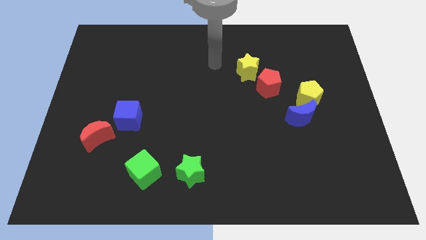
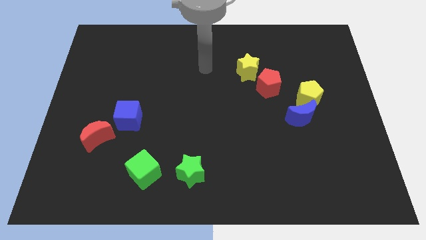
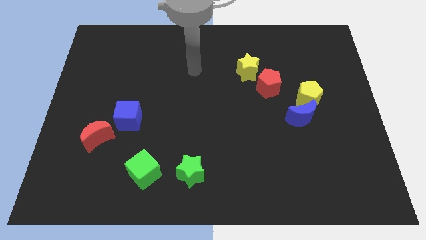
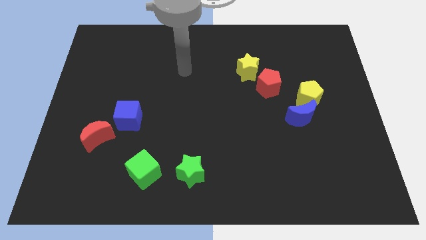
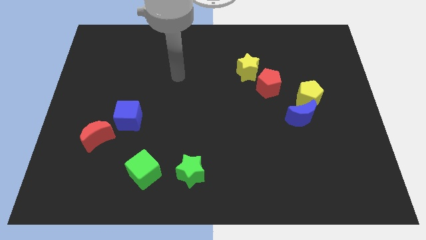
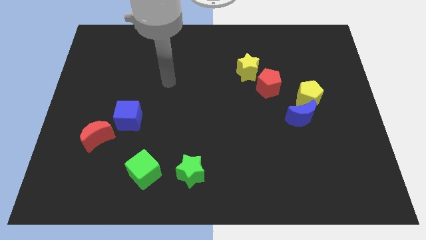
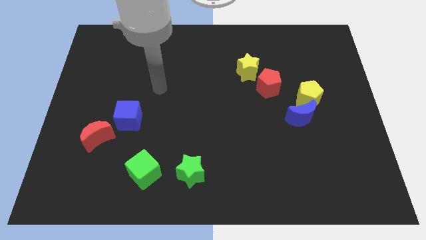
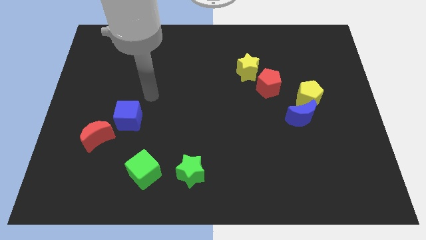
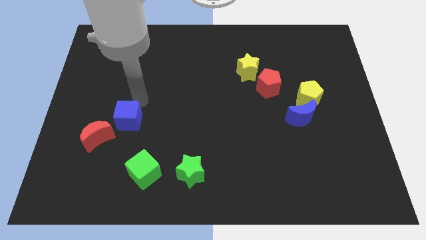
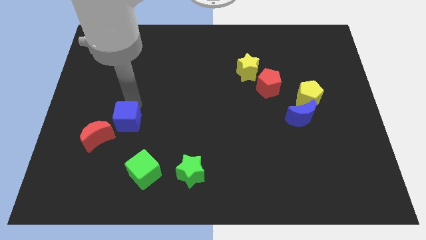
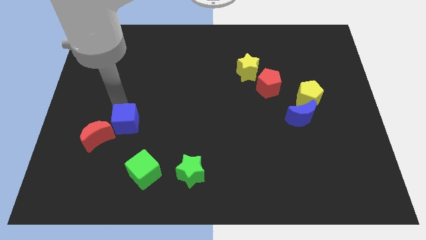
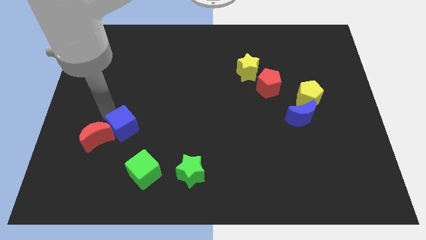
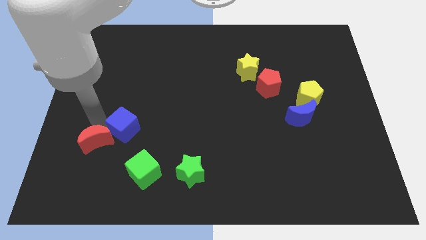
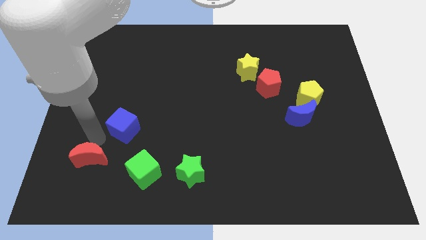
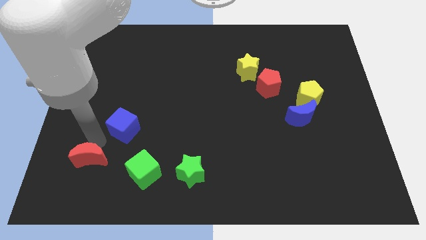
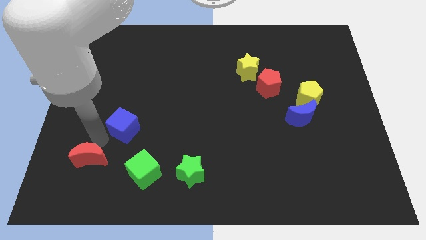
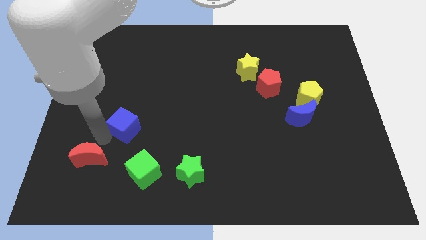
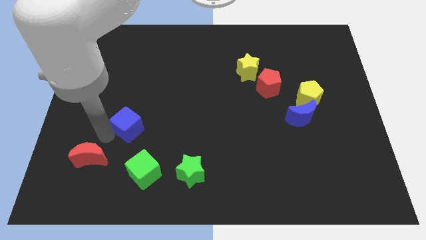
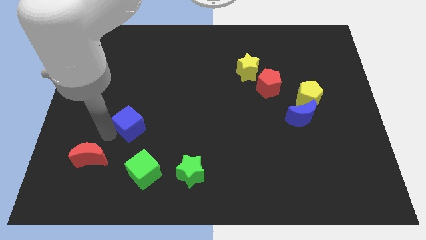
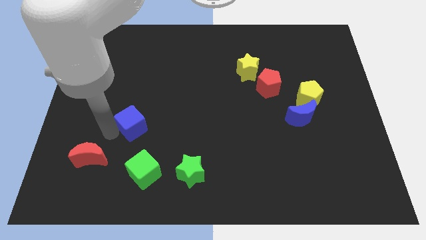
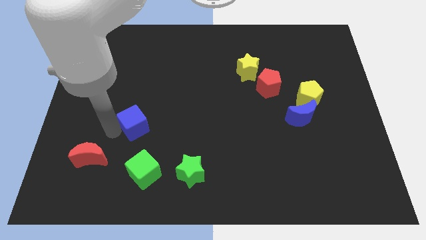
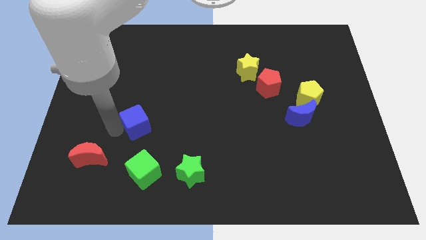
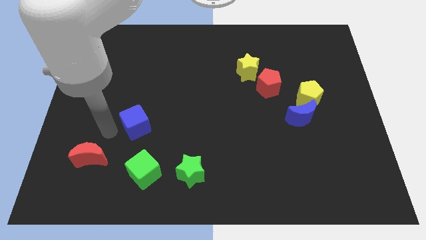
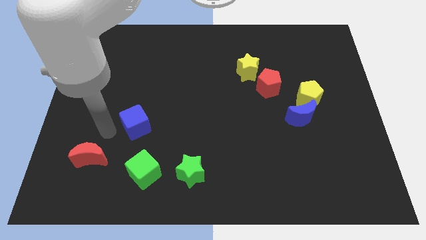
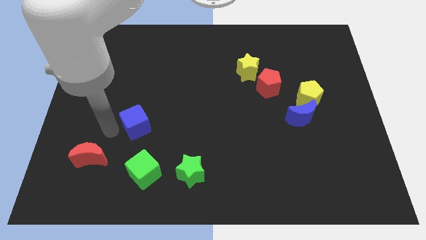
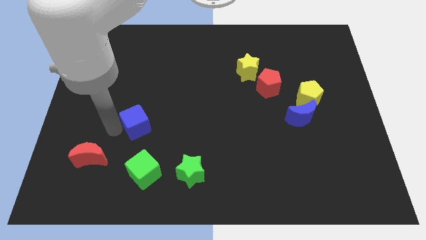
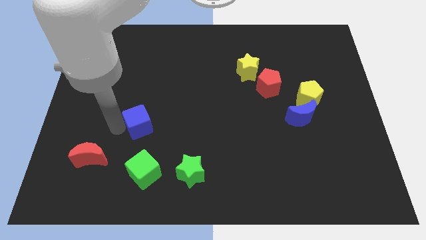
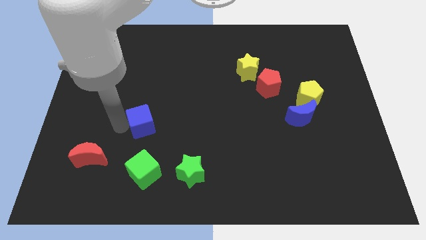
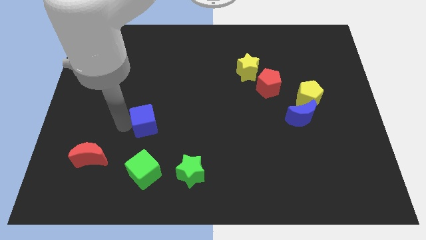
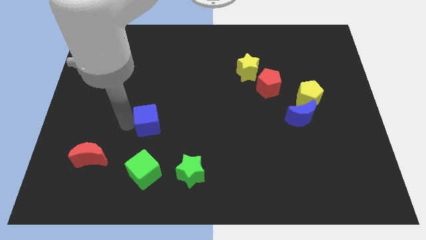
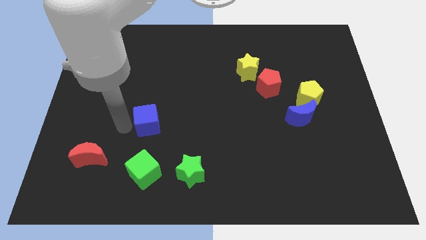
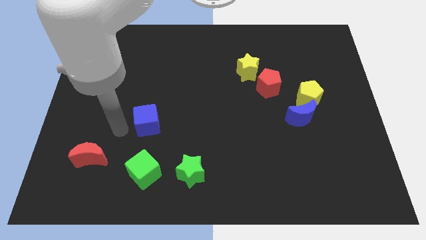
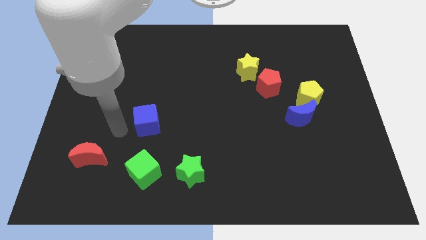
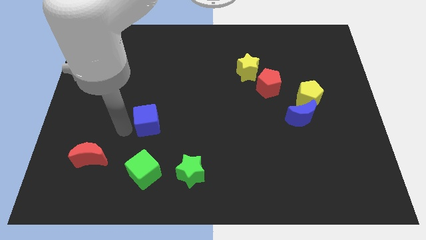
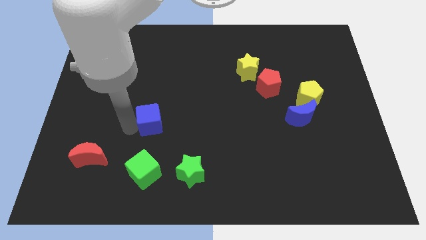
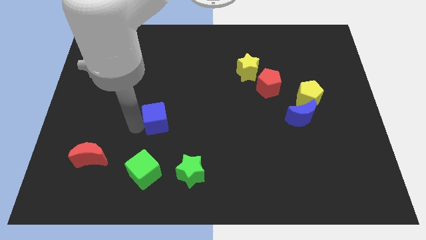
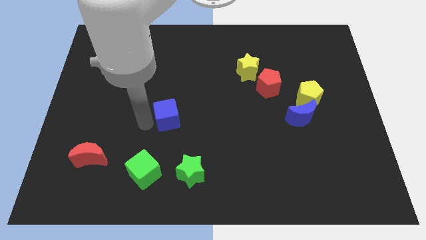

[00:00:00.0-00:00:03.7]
slightly push the blue cube right

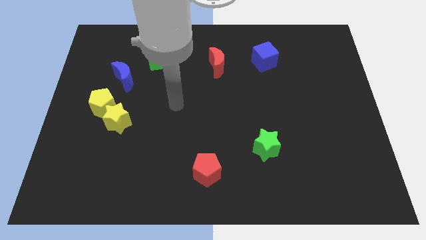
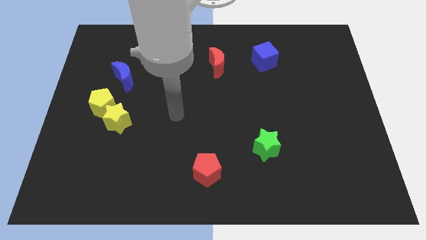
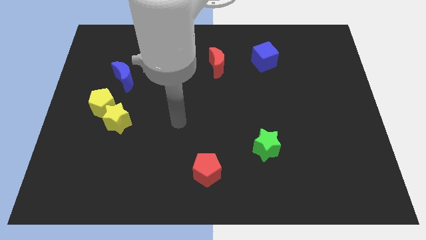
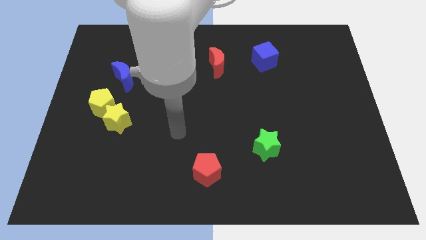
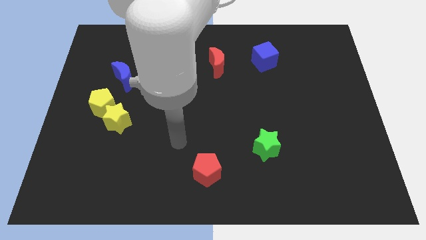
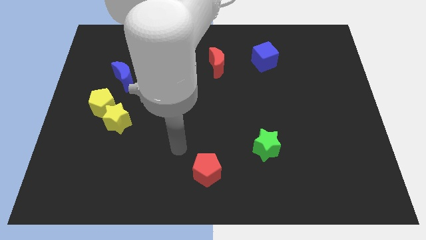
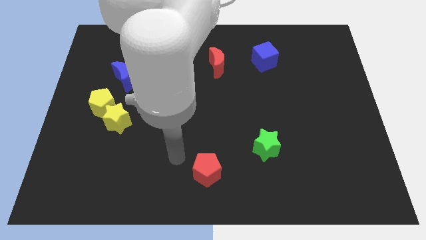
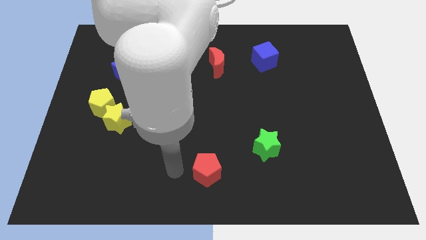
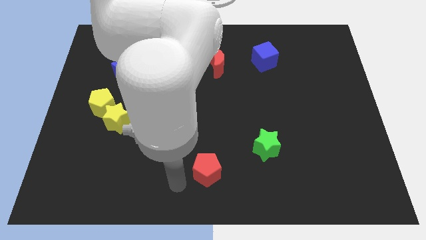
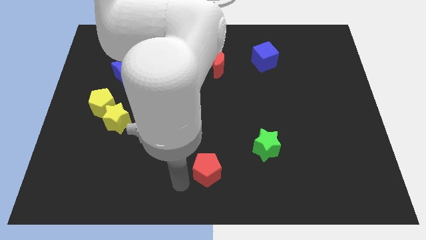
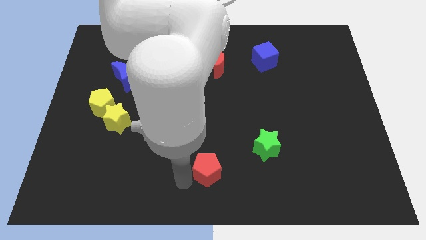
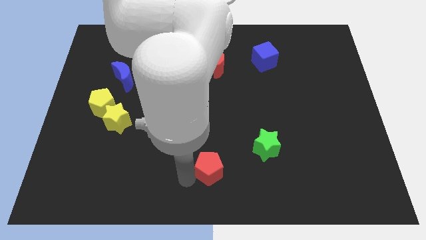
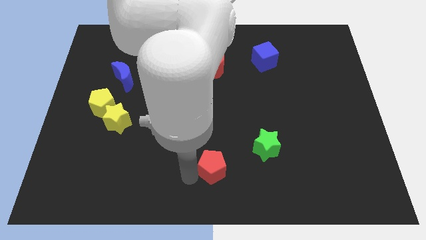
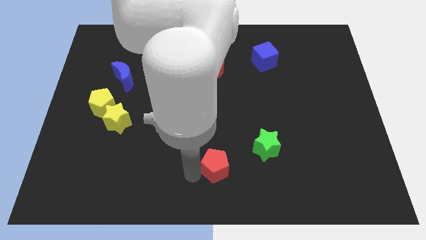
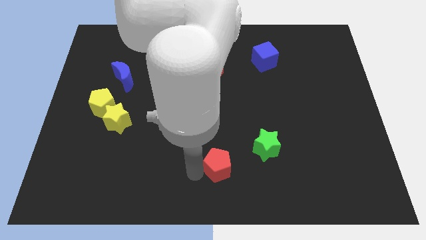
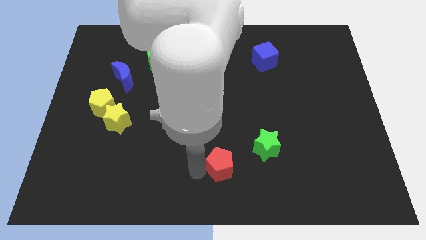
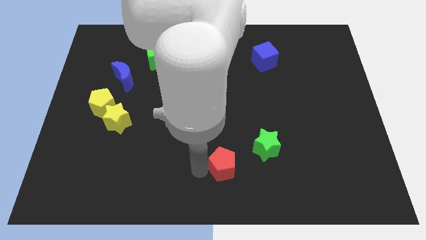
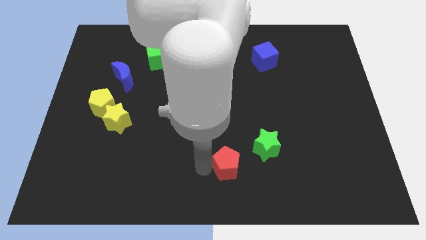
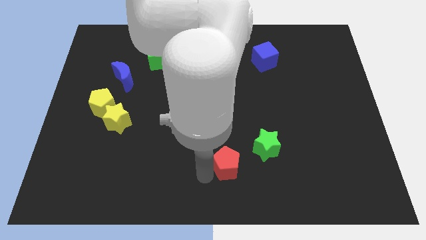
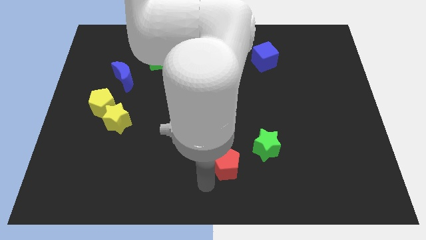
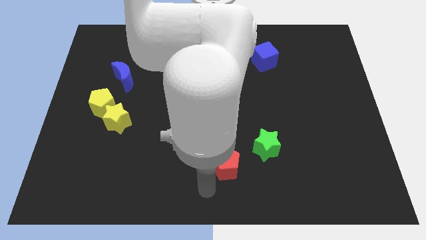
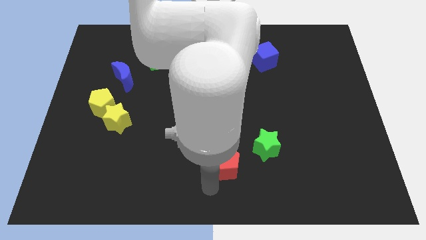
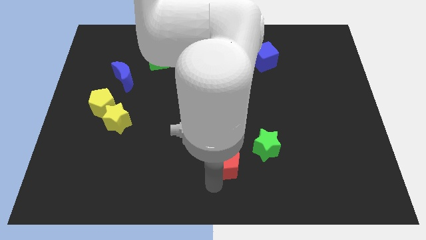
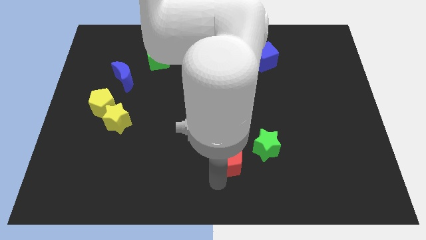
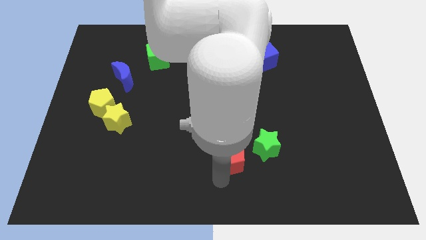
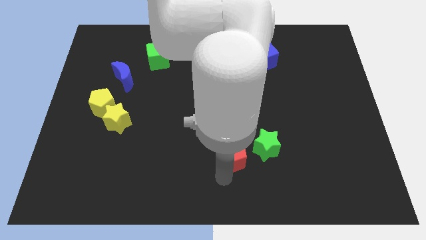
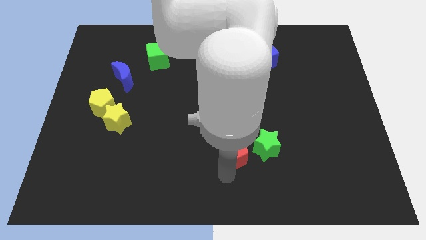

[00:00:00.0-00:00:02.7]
move the red pentagon a little bit upwards and right

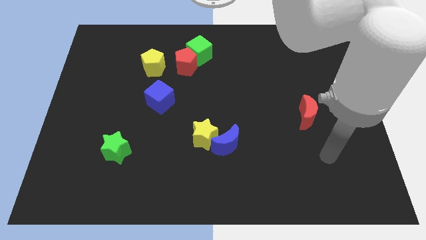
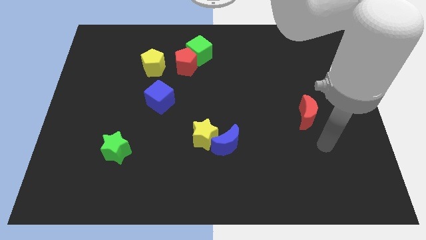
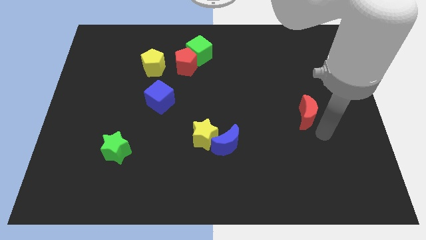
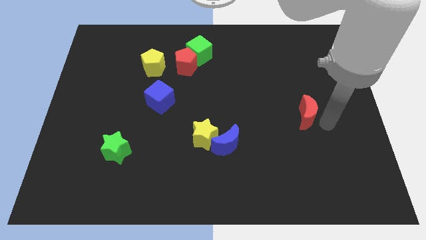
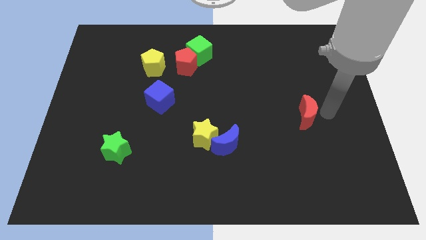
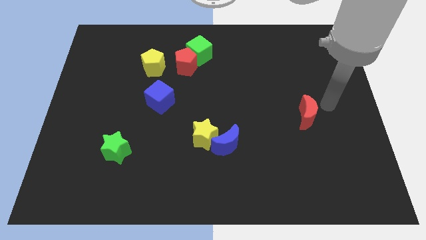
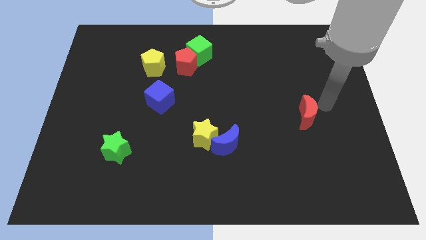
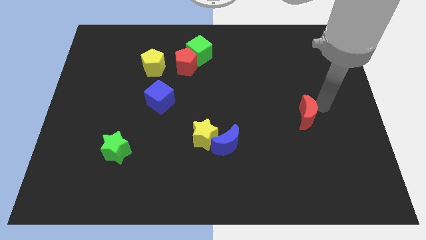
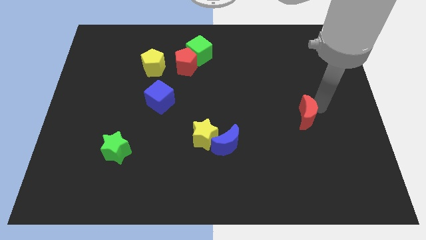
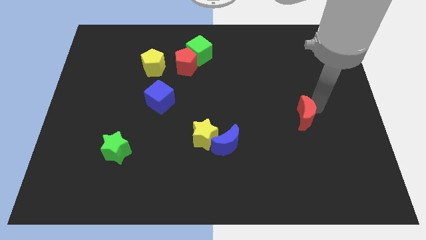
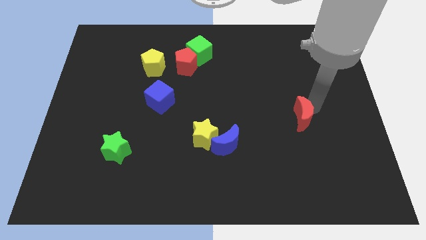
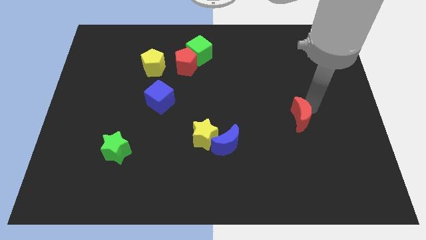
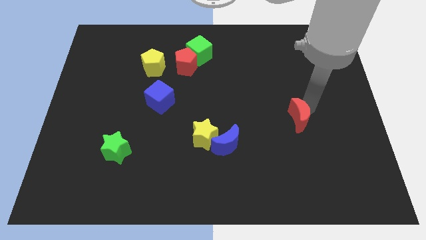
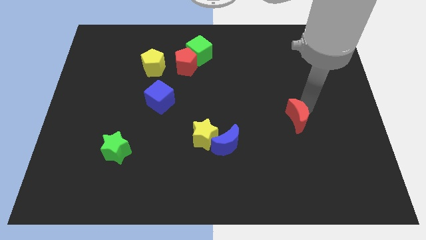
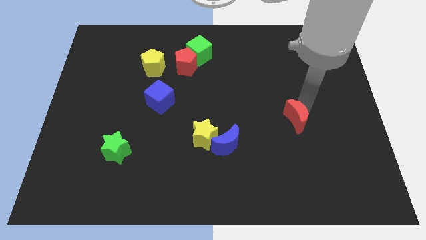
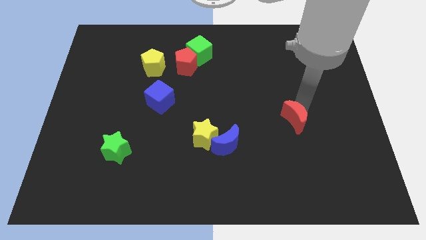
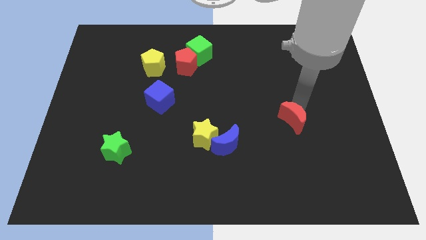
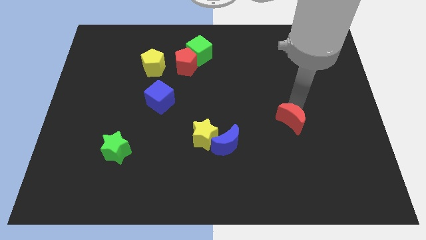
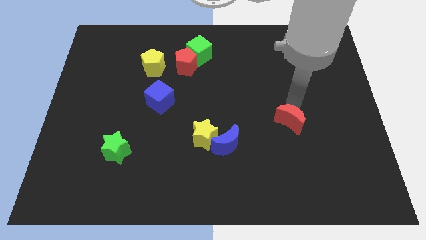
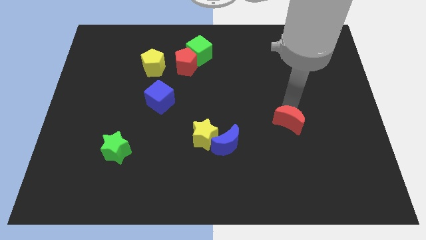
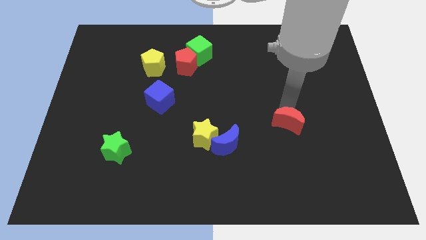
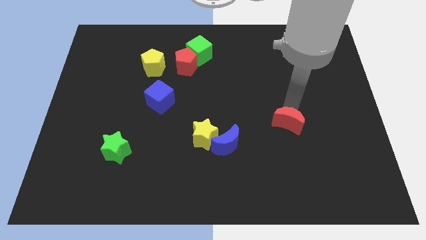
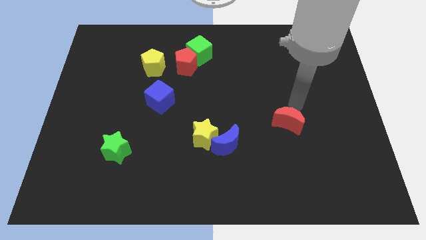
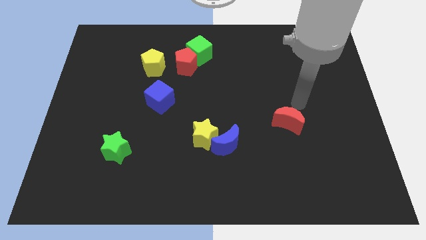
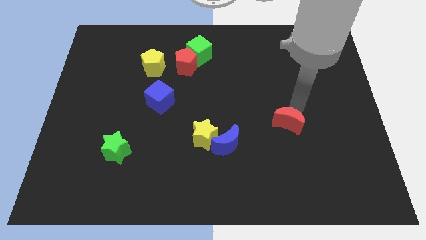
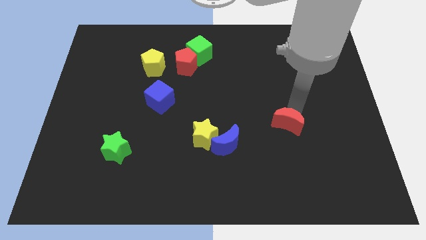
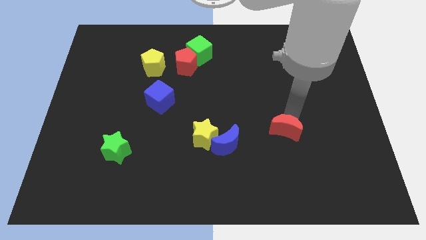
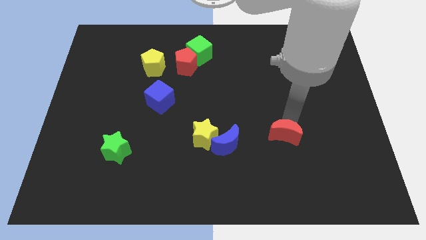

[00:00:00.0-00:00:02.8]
slide the red moon a little bit diagonally down and to the left
